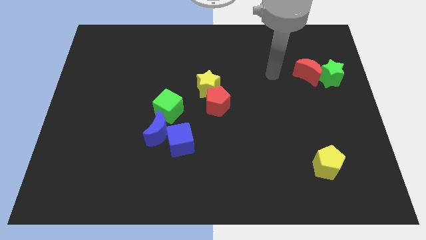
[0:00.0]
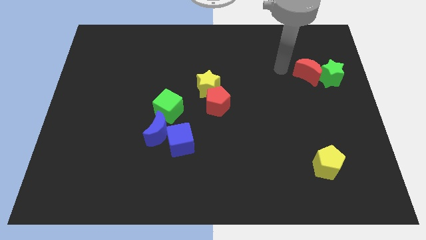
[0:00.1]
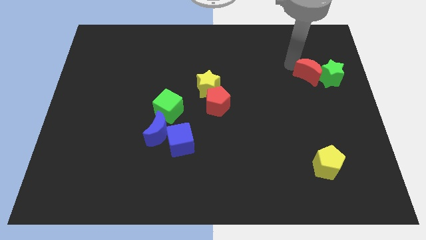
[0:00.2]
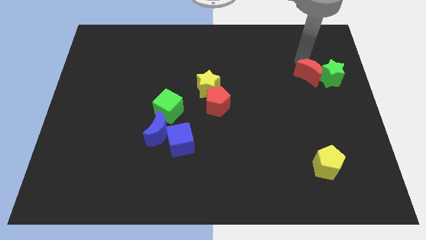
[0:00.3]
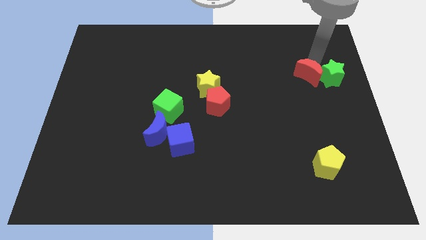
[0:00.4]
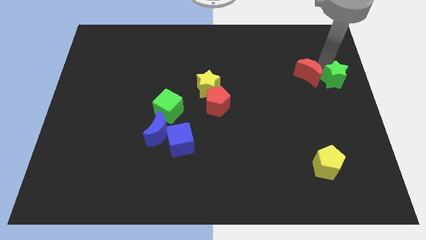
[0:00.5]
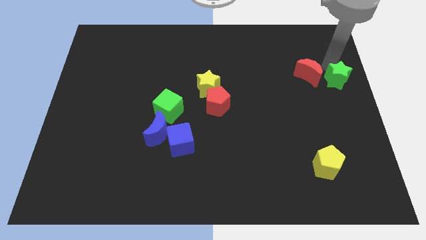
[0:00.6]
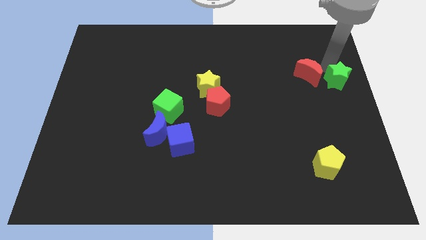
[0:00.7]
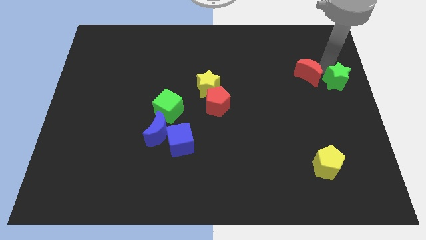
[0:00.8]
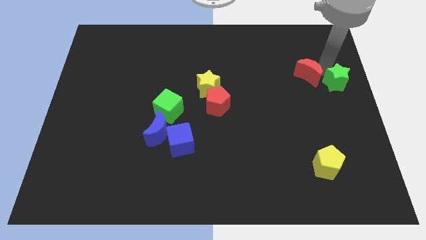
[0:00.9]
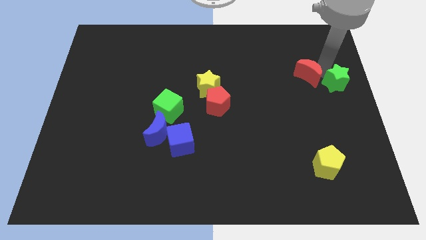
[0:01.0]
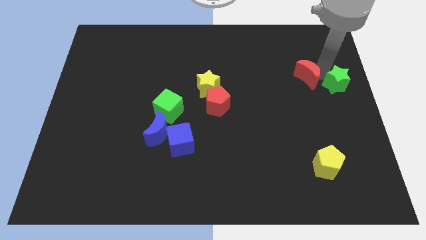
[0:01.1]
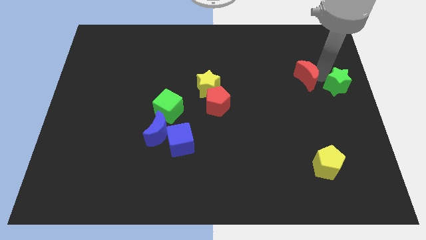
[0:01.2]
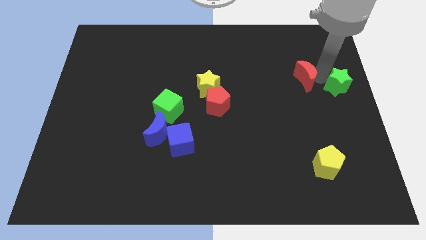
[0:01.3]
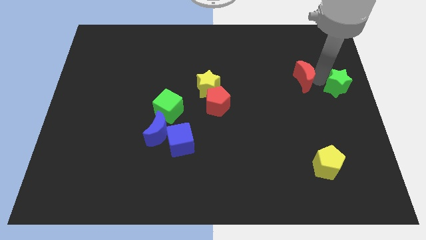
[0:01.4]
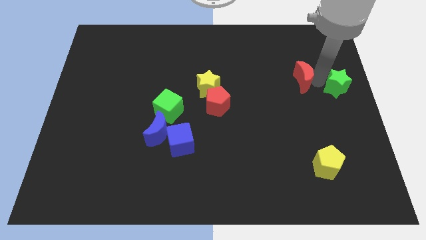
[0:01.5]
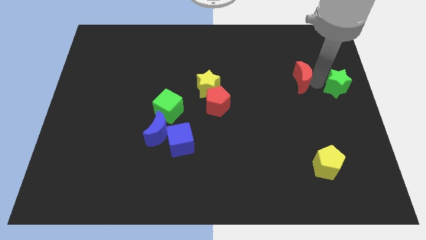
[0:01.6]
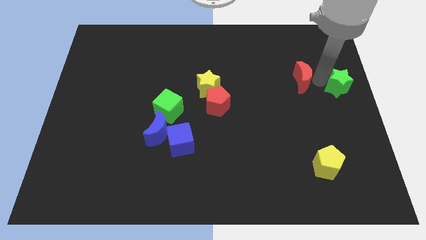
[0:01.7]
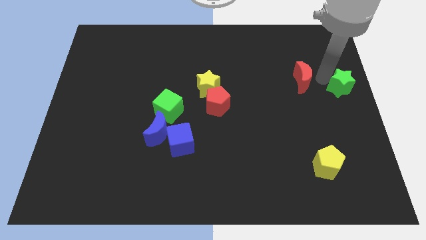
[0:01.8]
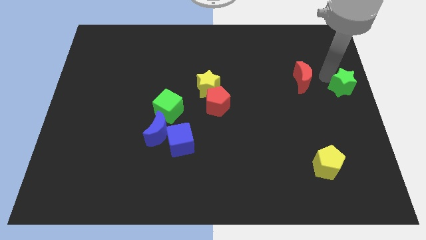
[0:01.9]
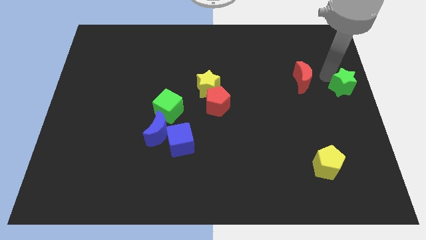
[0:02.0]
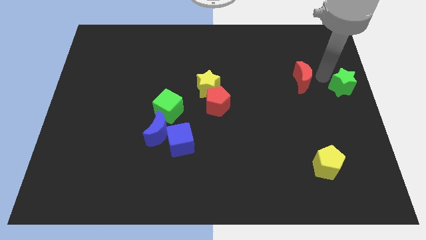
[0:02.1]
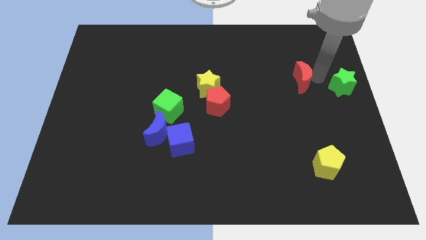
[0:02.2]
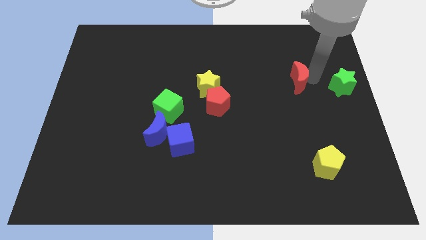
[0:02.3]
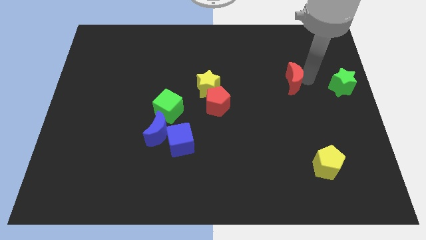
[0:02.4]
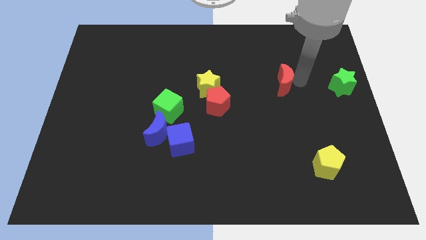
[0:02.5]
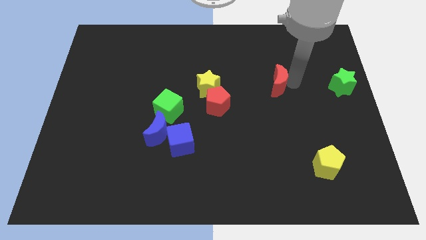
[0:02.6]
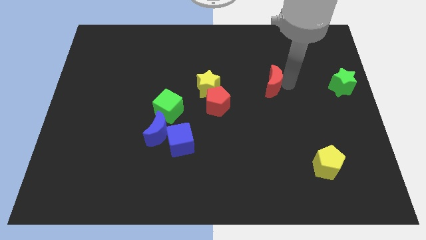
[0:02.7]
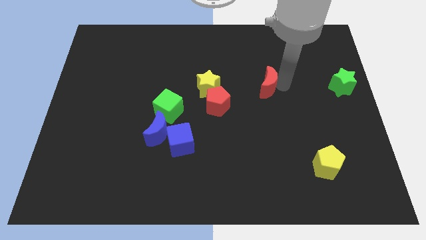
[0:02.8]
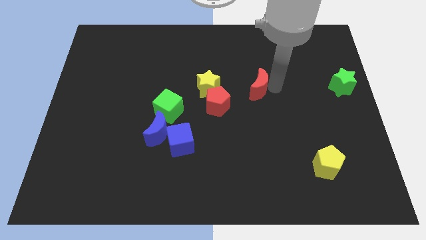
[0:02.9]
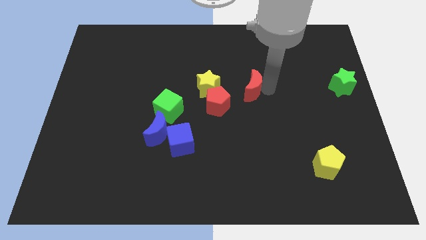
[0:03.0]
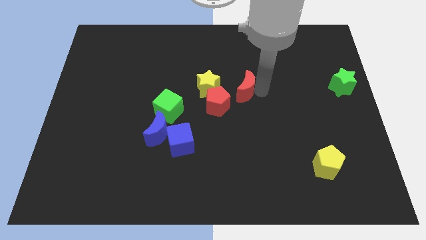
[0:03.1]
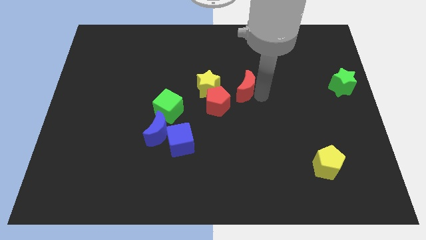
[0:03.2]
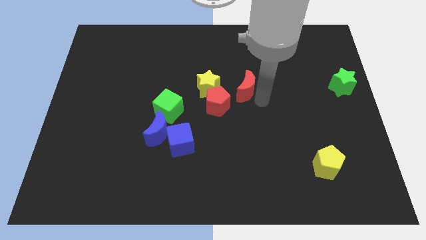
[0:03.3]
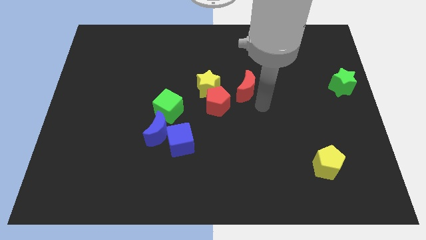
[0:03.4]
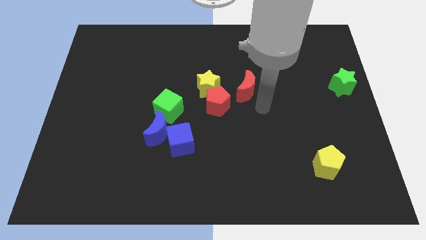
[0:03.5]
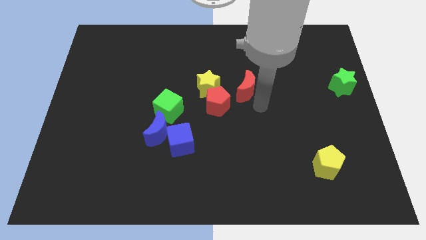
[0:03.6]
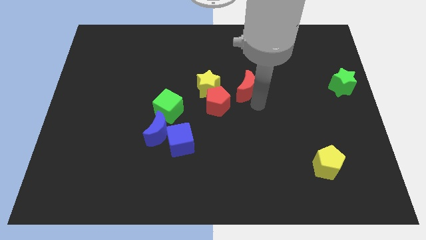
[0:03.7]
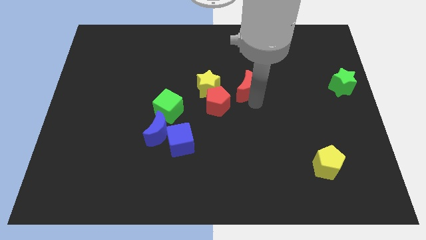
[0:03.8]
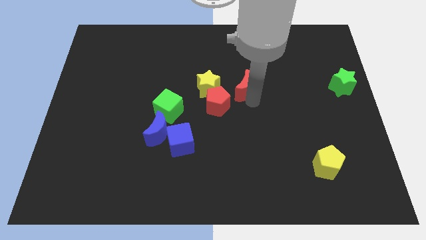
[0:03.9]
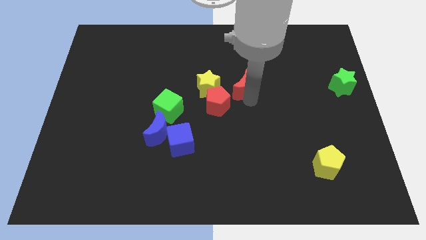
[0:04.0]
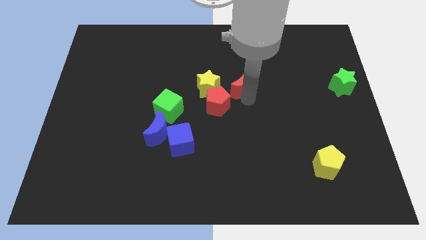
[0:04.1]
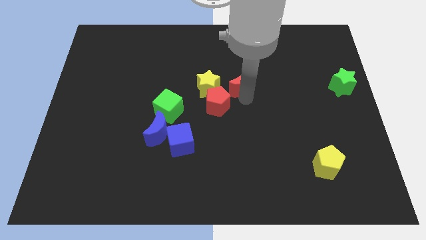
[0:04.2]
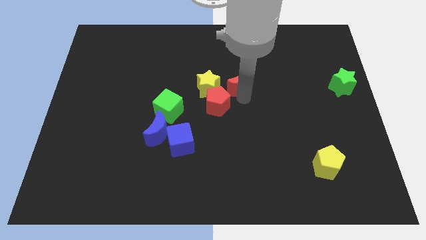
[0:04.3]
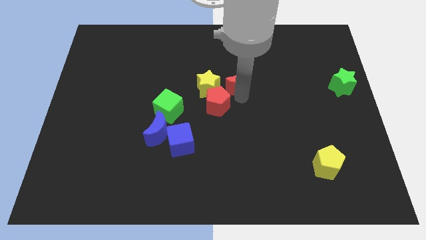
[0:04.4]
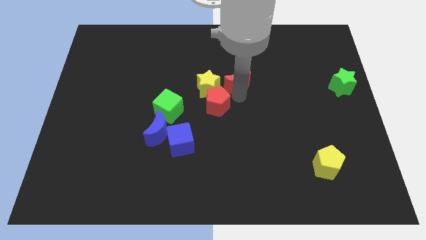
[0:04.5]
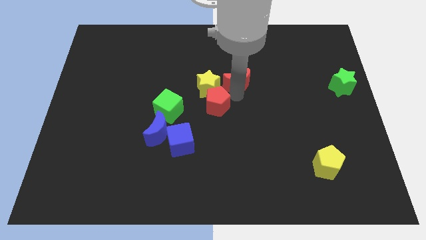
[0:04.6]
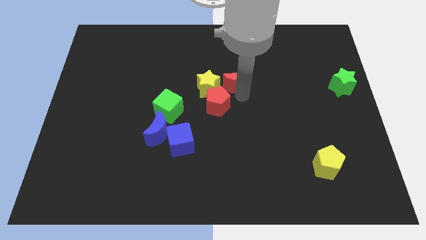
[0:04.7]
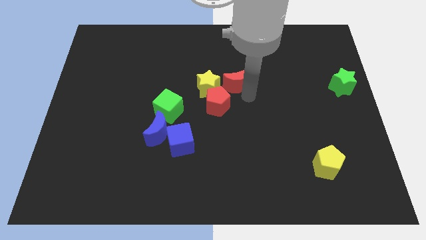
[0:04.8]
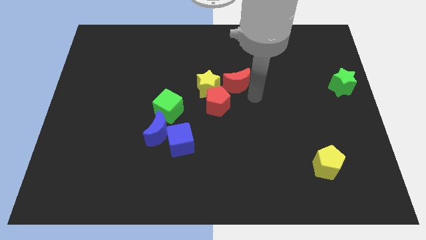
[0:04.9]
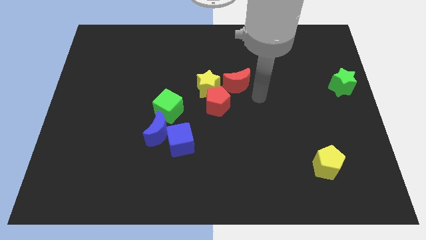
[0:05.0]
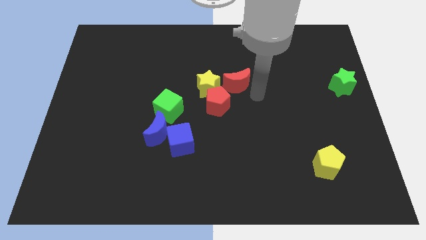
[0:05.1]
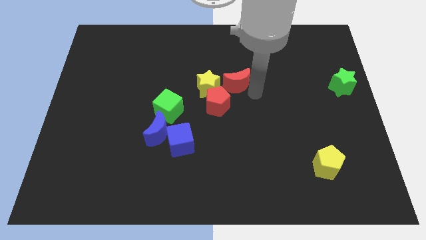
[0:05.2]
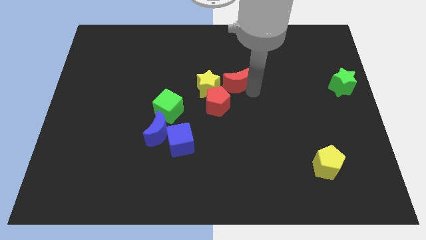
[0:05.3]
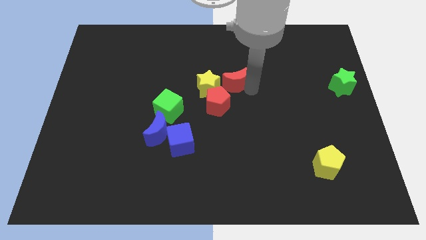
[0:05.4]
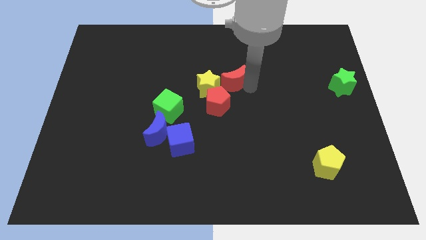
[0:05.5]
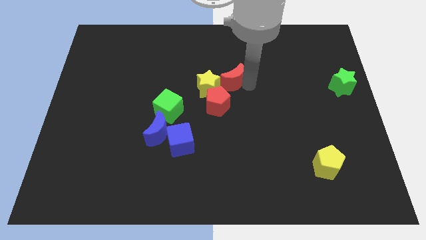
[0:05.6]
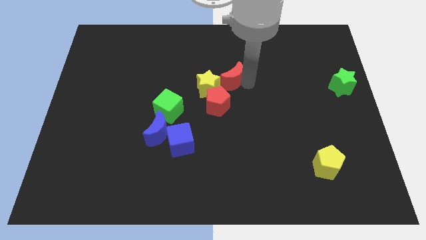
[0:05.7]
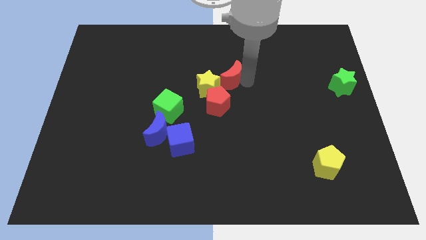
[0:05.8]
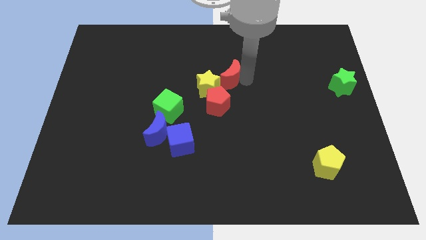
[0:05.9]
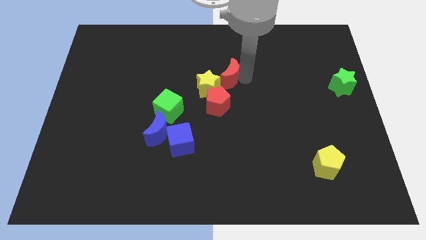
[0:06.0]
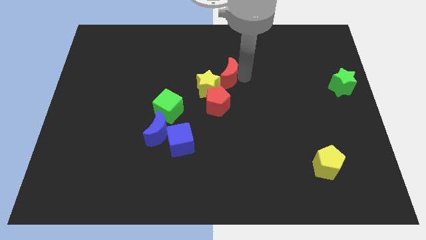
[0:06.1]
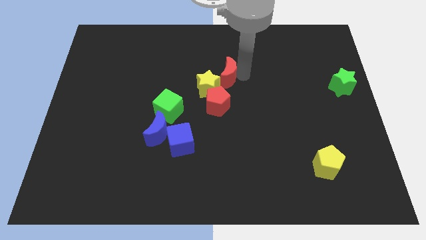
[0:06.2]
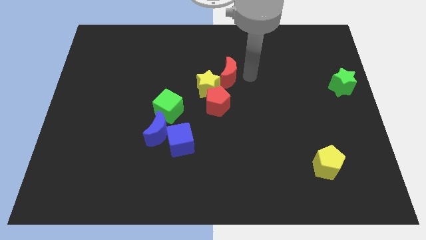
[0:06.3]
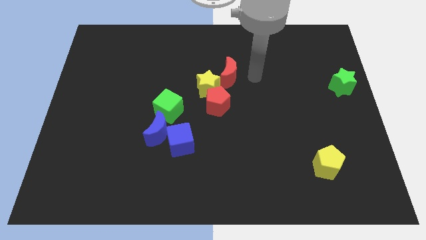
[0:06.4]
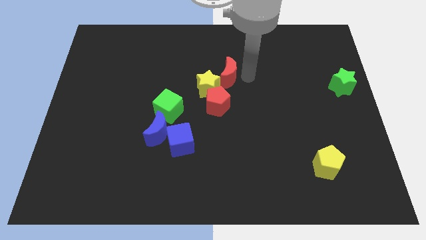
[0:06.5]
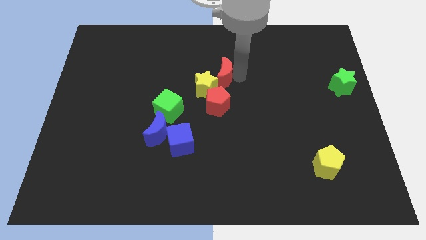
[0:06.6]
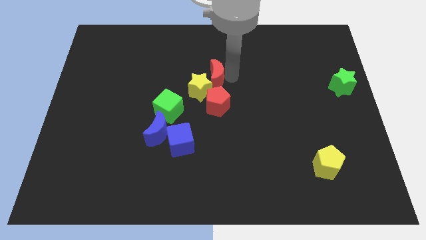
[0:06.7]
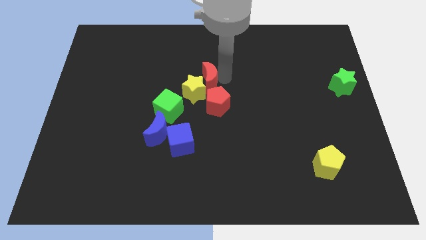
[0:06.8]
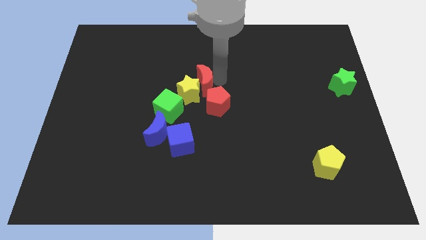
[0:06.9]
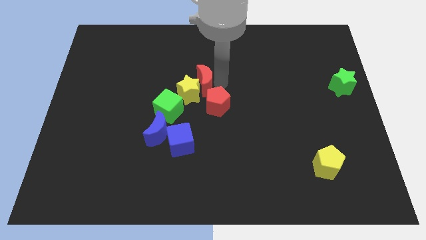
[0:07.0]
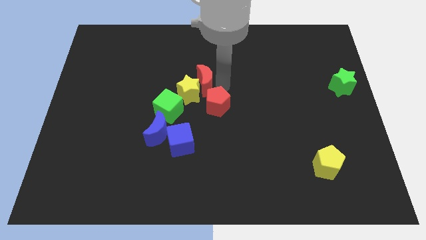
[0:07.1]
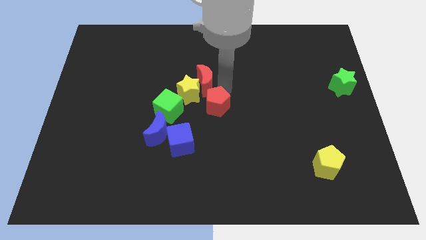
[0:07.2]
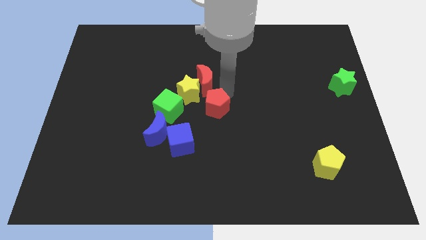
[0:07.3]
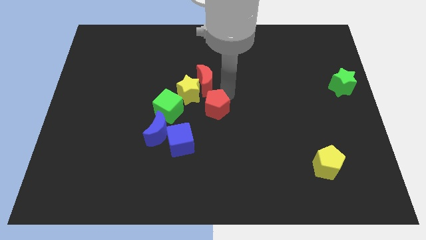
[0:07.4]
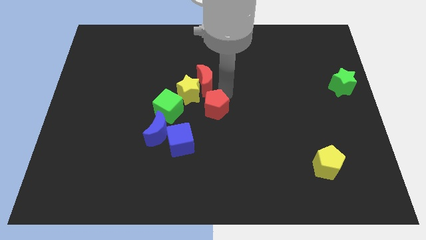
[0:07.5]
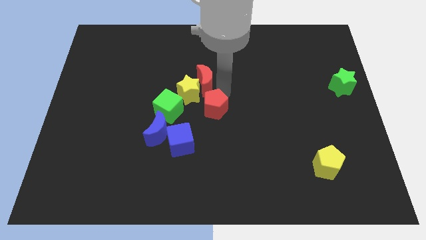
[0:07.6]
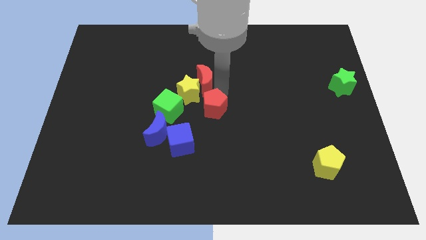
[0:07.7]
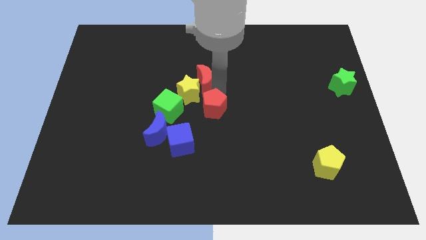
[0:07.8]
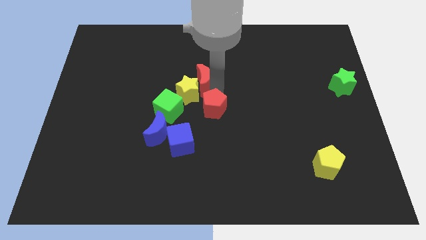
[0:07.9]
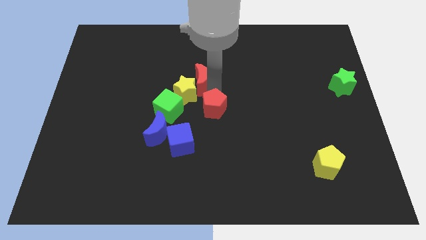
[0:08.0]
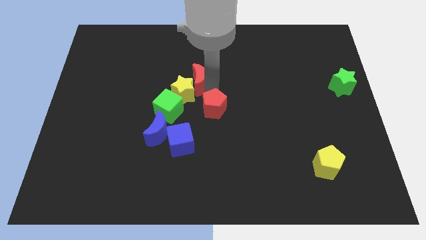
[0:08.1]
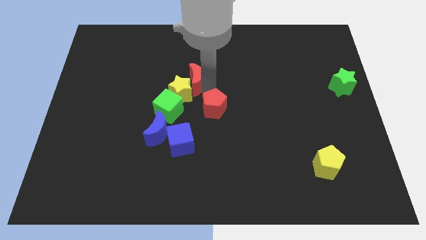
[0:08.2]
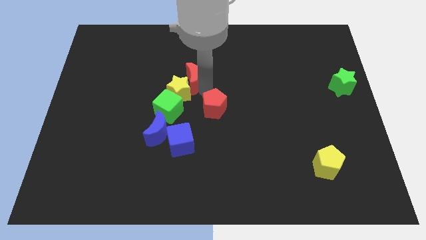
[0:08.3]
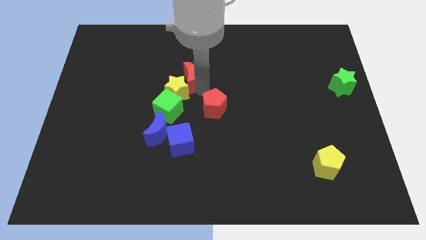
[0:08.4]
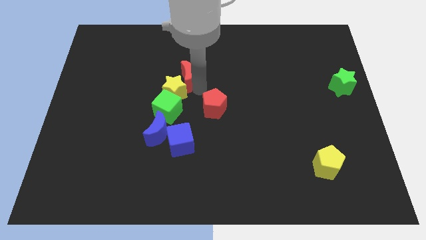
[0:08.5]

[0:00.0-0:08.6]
put the red moon above the green cube
